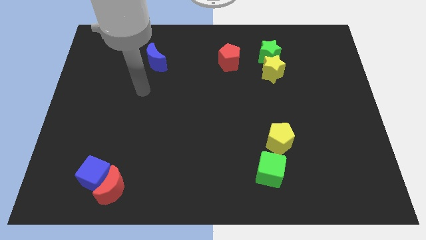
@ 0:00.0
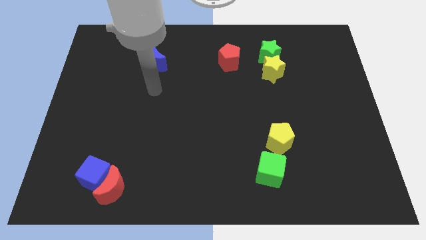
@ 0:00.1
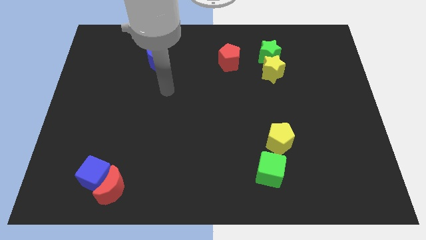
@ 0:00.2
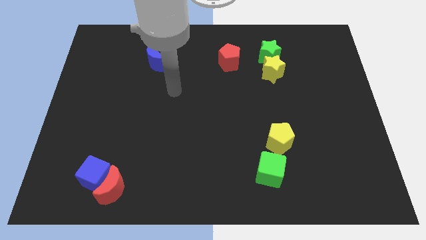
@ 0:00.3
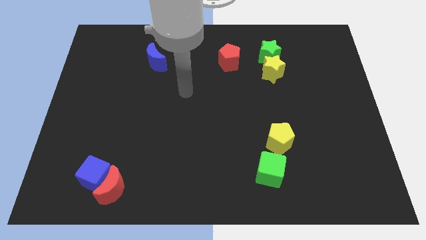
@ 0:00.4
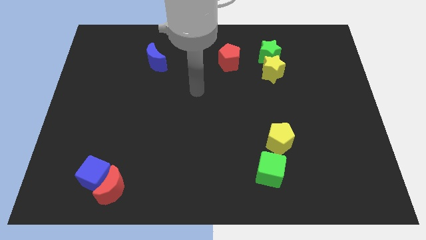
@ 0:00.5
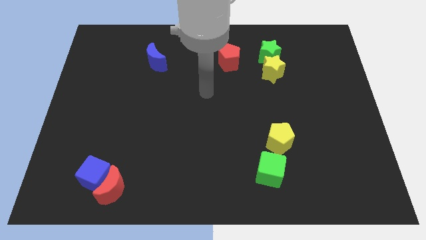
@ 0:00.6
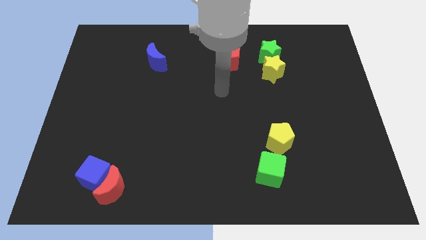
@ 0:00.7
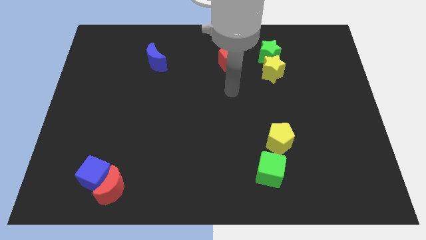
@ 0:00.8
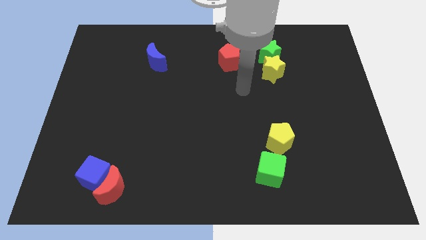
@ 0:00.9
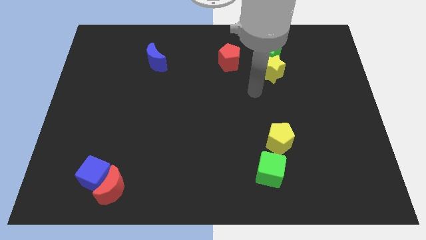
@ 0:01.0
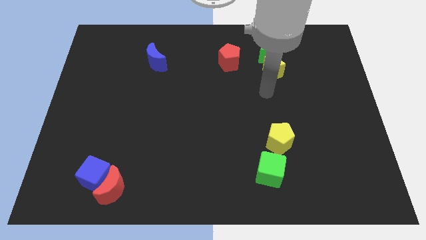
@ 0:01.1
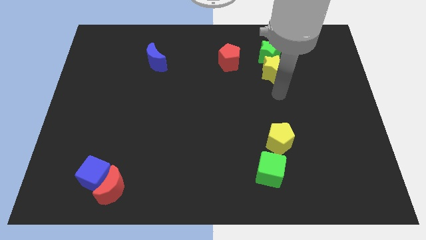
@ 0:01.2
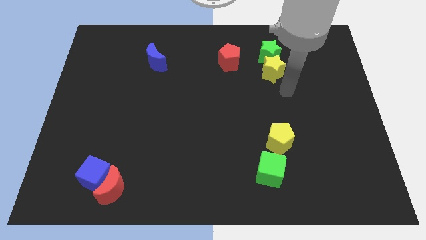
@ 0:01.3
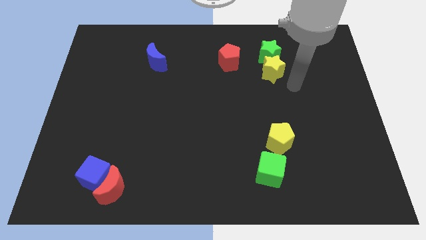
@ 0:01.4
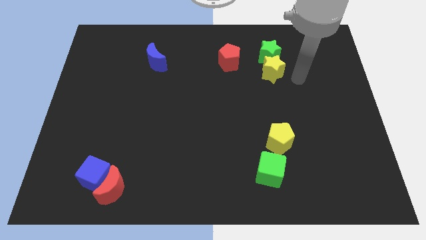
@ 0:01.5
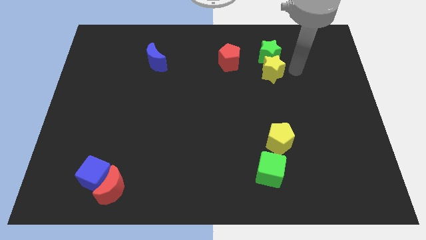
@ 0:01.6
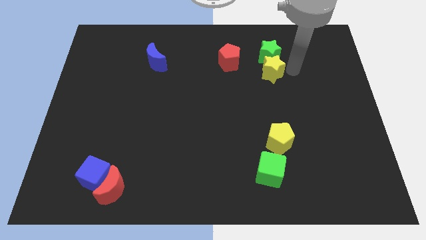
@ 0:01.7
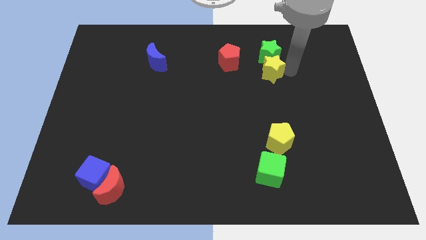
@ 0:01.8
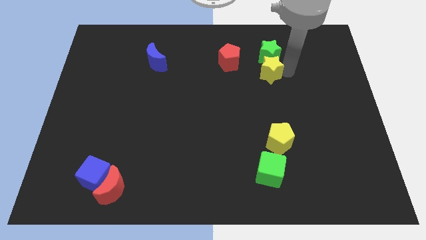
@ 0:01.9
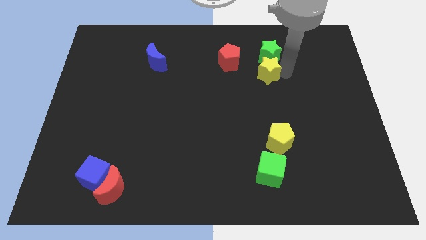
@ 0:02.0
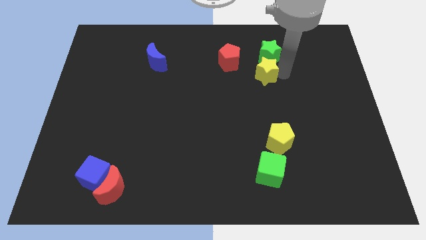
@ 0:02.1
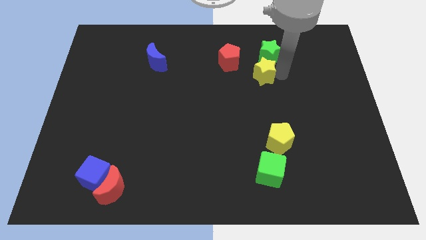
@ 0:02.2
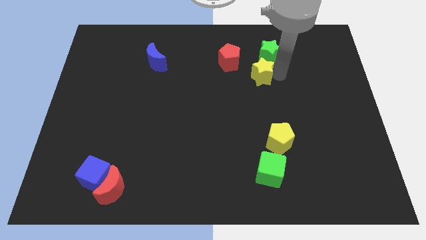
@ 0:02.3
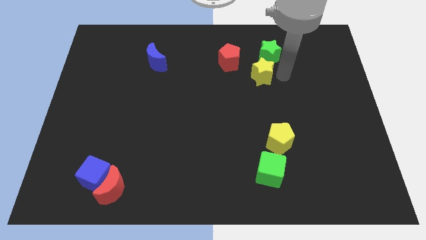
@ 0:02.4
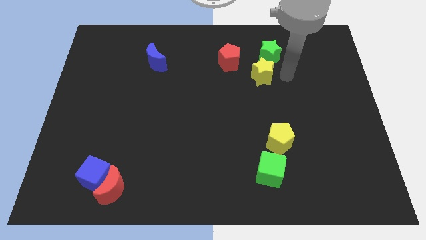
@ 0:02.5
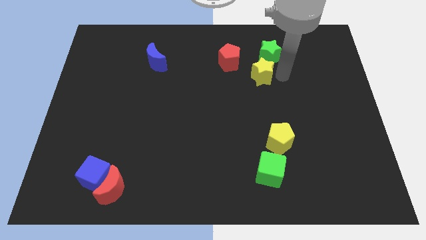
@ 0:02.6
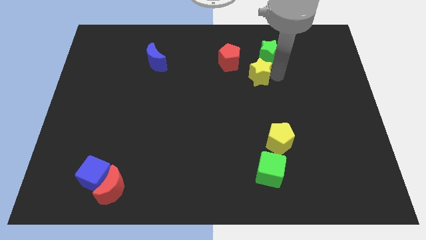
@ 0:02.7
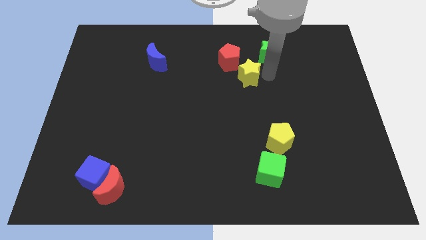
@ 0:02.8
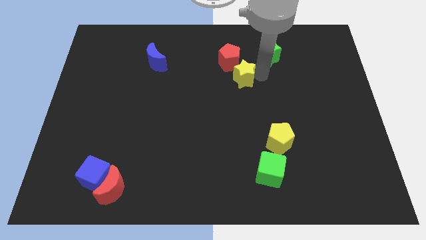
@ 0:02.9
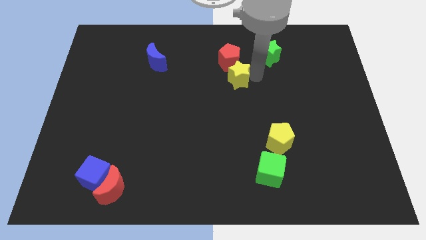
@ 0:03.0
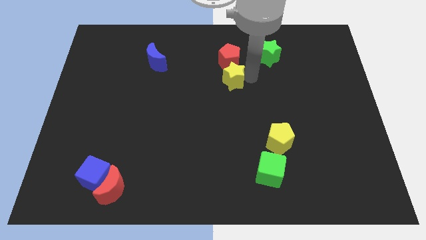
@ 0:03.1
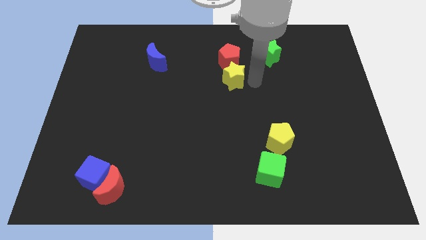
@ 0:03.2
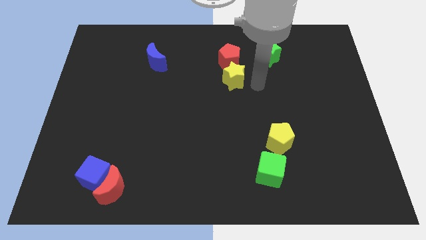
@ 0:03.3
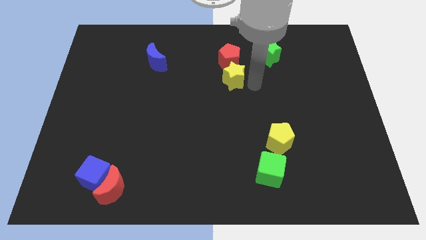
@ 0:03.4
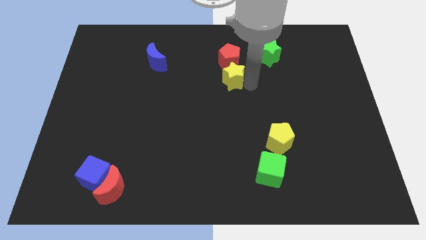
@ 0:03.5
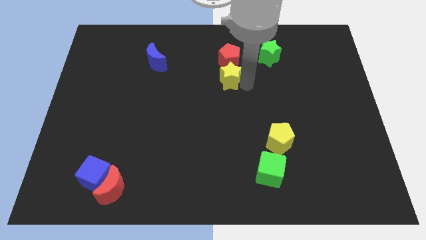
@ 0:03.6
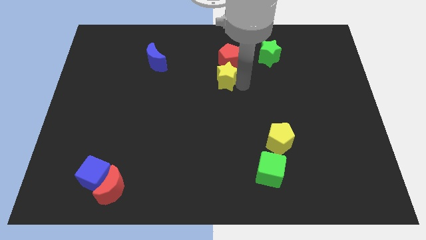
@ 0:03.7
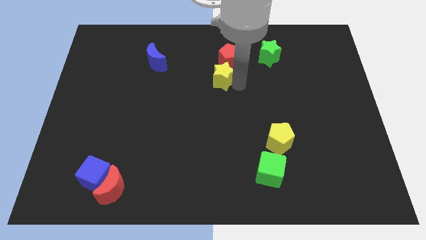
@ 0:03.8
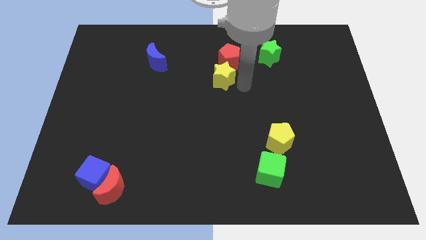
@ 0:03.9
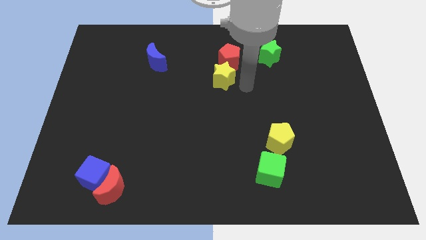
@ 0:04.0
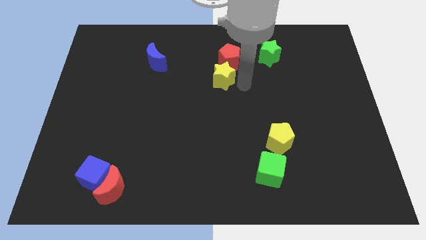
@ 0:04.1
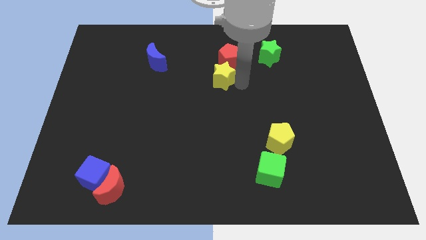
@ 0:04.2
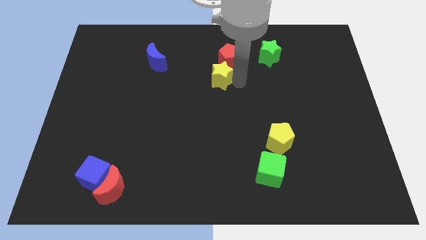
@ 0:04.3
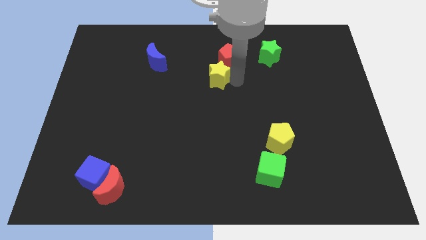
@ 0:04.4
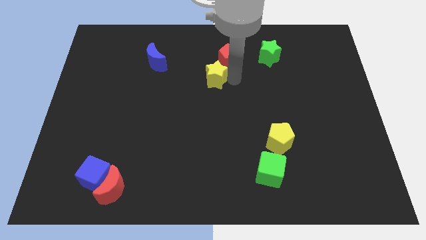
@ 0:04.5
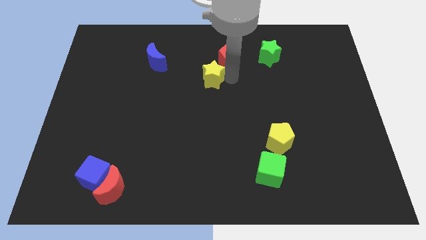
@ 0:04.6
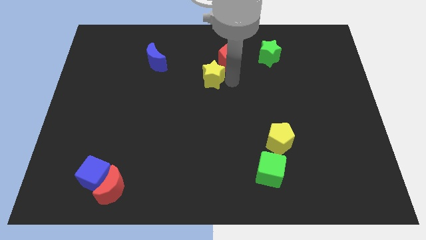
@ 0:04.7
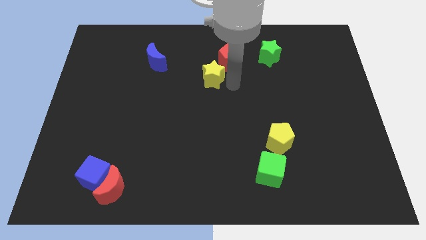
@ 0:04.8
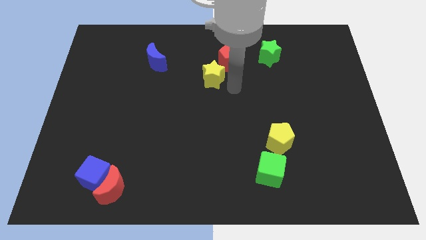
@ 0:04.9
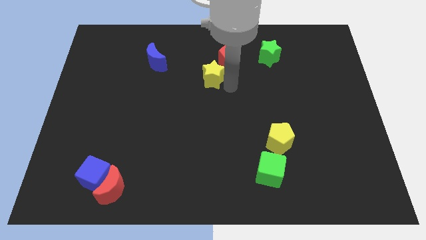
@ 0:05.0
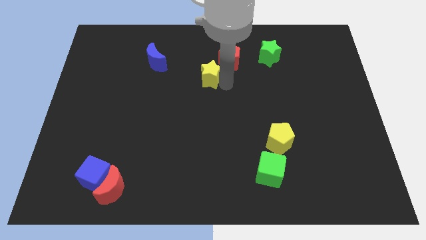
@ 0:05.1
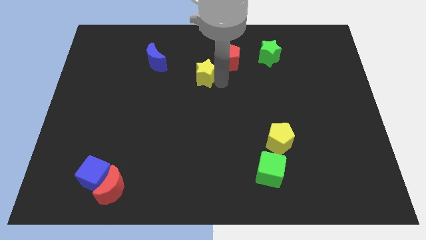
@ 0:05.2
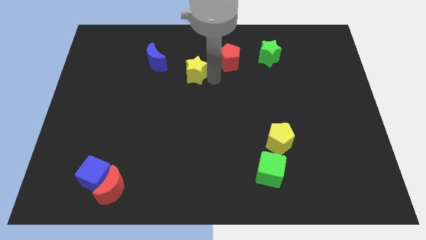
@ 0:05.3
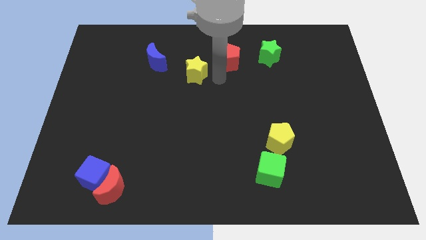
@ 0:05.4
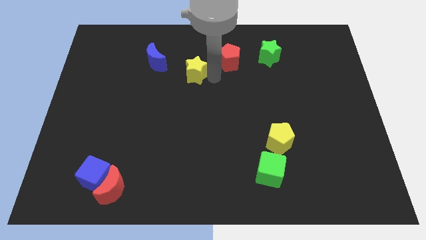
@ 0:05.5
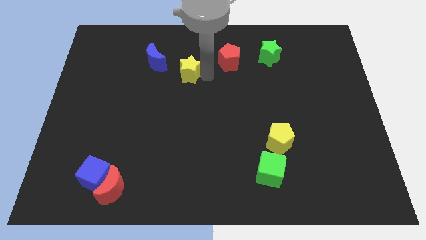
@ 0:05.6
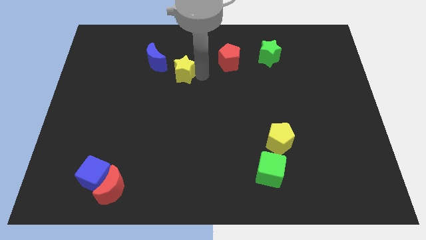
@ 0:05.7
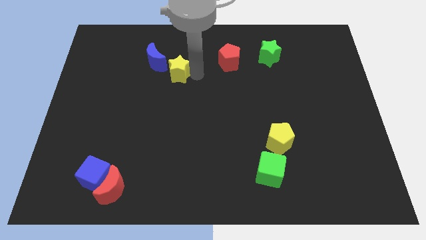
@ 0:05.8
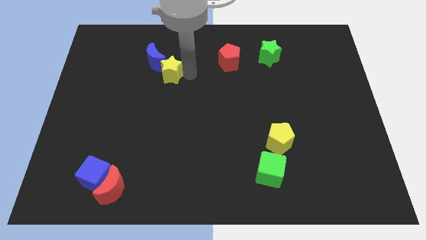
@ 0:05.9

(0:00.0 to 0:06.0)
slide the yellow star next to the blue moon
